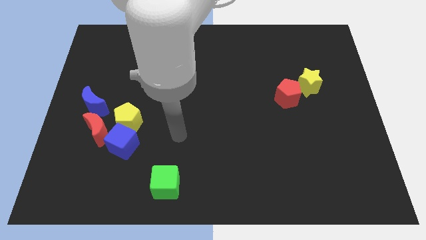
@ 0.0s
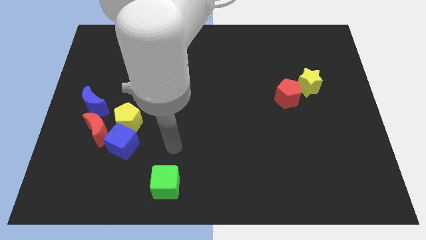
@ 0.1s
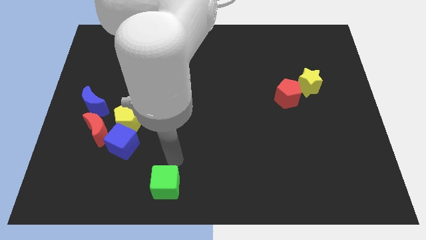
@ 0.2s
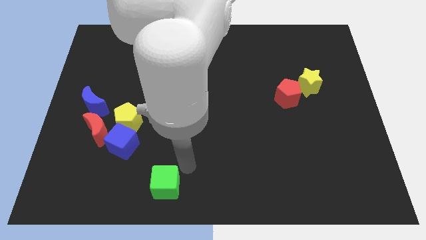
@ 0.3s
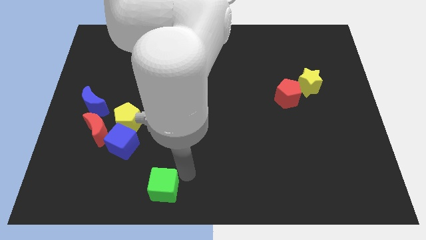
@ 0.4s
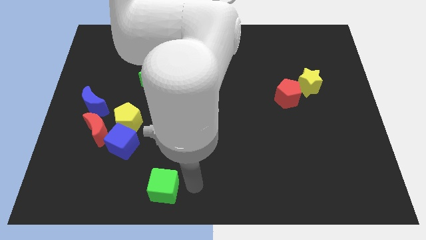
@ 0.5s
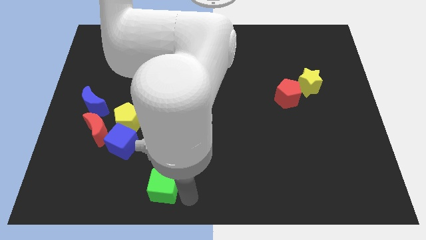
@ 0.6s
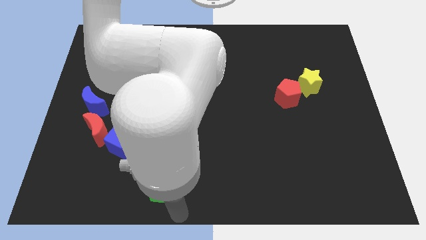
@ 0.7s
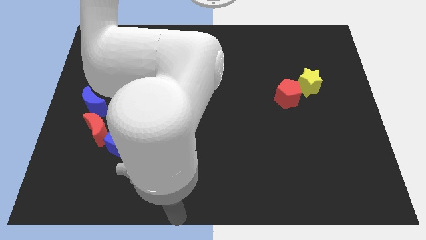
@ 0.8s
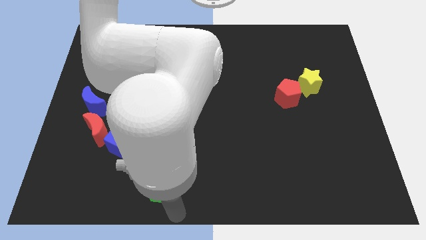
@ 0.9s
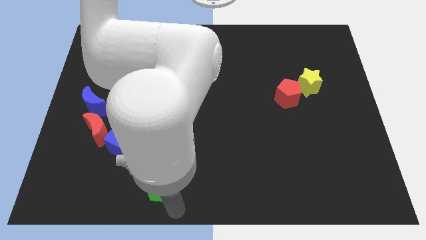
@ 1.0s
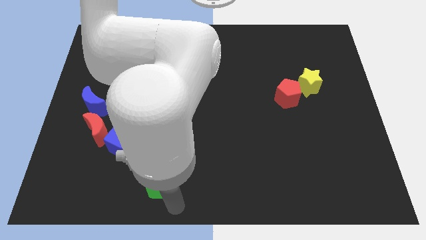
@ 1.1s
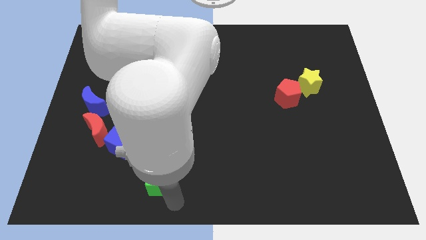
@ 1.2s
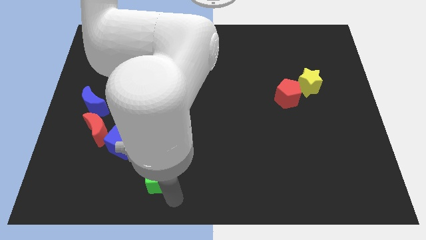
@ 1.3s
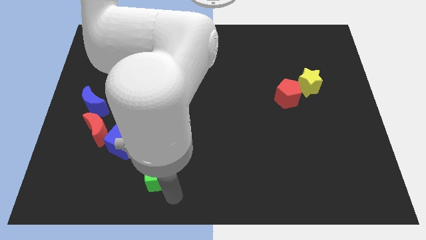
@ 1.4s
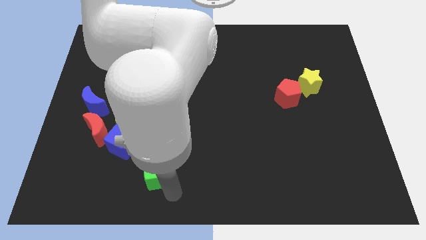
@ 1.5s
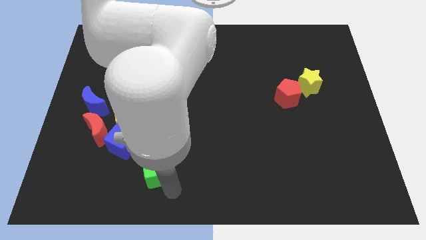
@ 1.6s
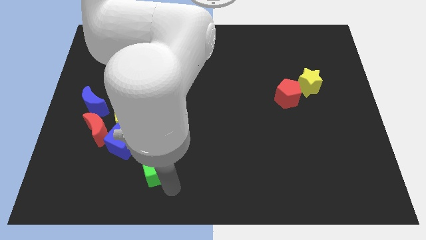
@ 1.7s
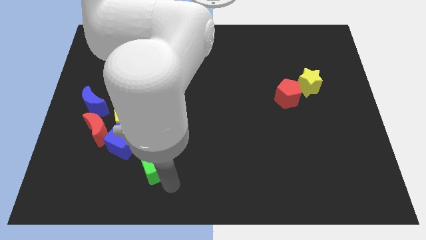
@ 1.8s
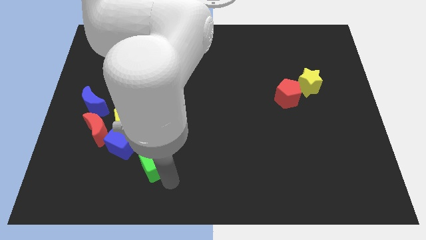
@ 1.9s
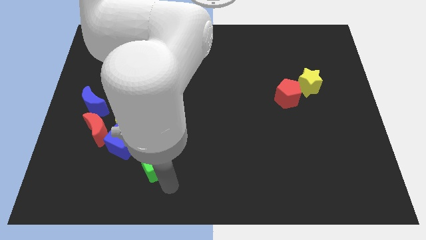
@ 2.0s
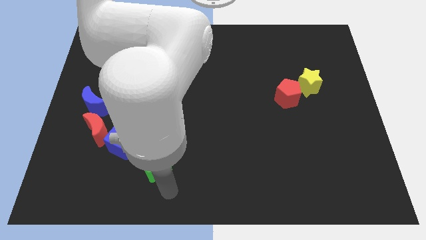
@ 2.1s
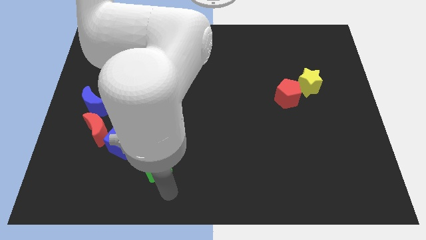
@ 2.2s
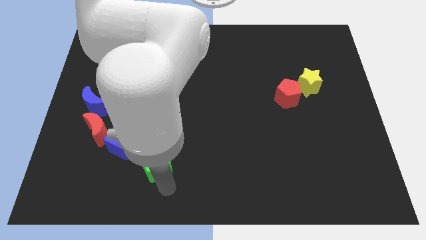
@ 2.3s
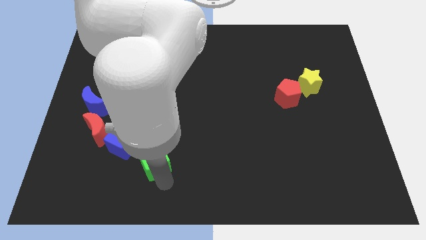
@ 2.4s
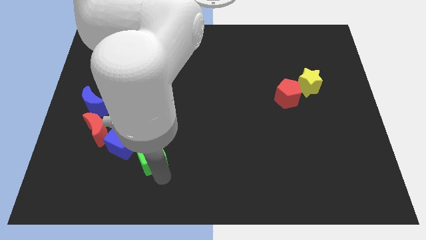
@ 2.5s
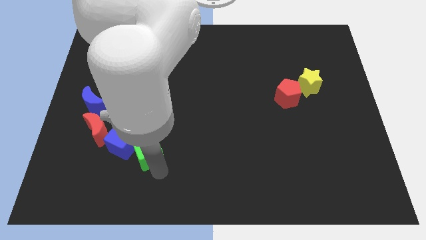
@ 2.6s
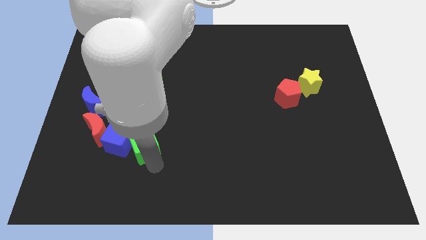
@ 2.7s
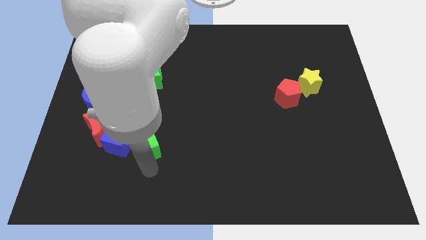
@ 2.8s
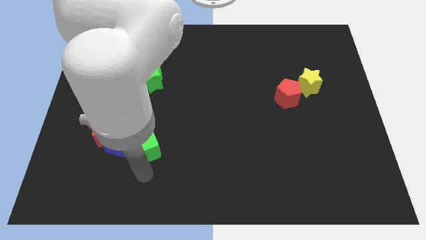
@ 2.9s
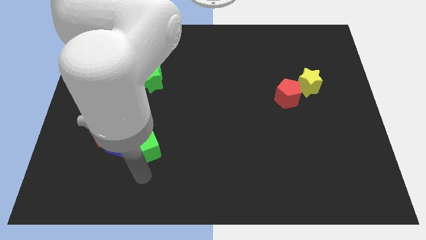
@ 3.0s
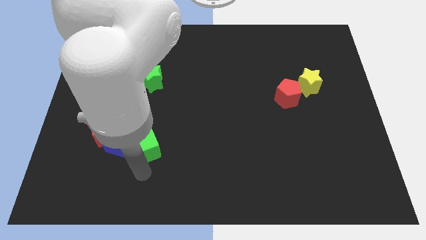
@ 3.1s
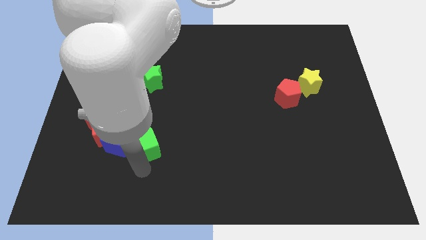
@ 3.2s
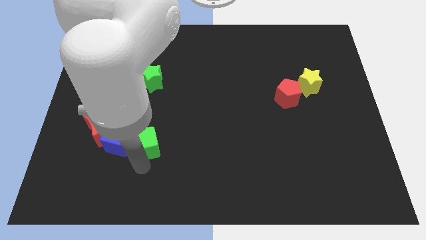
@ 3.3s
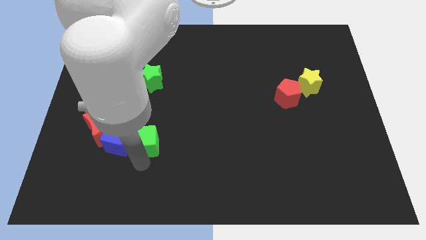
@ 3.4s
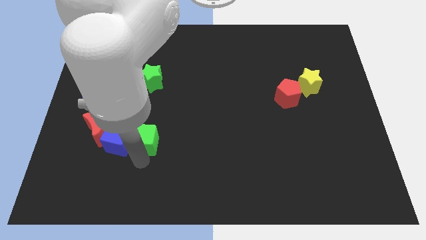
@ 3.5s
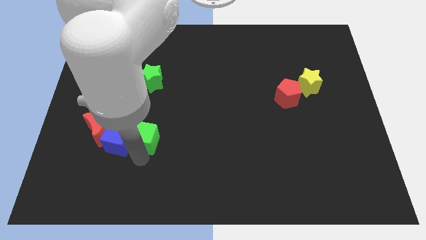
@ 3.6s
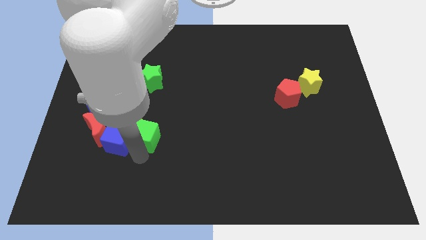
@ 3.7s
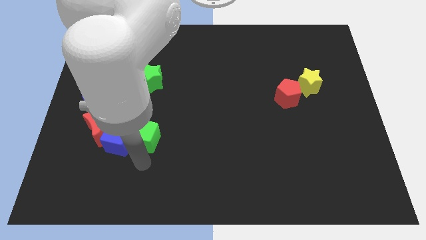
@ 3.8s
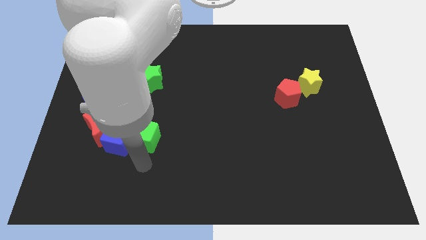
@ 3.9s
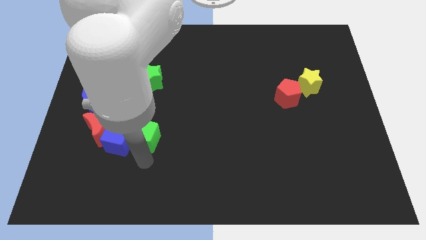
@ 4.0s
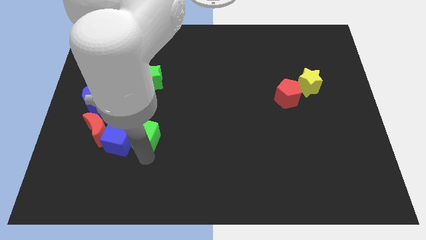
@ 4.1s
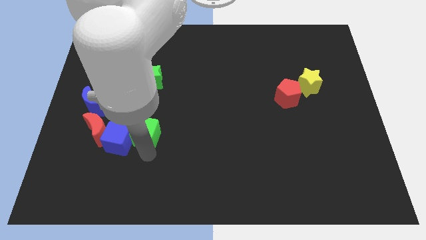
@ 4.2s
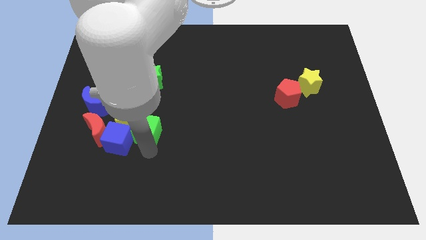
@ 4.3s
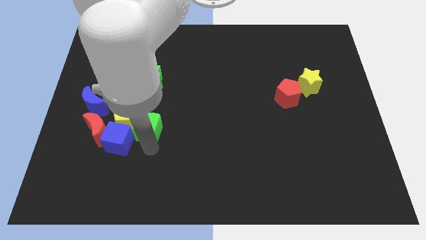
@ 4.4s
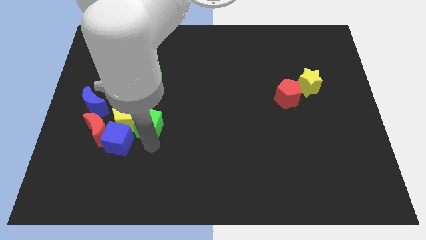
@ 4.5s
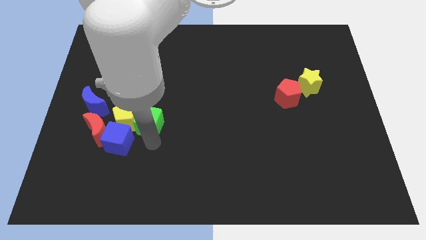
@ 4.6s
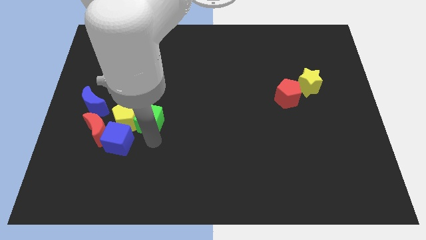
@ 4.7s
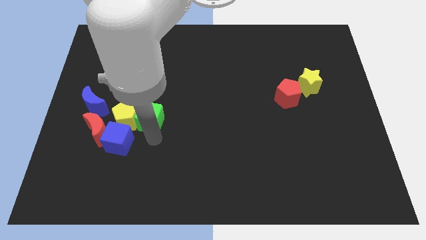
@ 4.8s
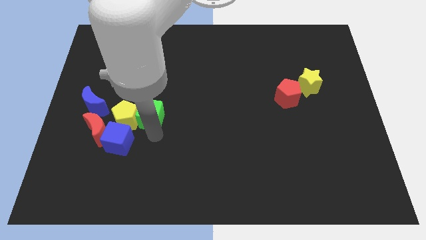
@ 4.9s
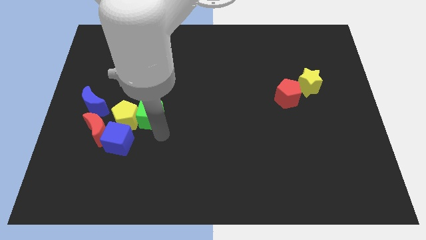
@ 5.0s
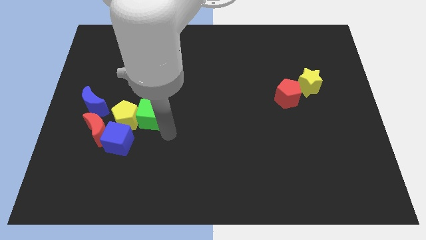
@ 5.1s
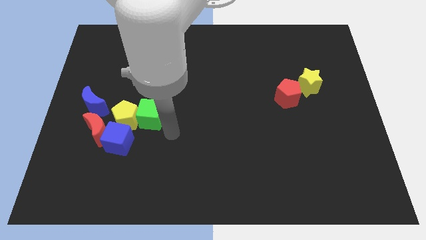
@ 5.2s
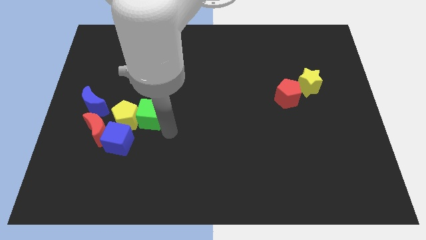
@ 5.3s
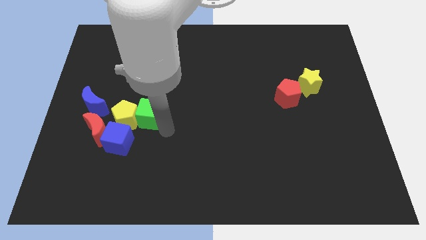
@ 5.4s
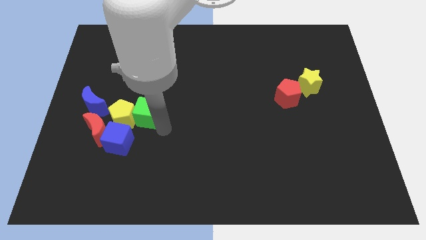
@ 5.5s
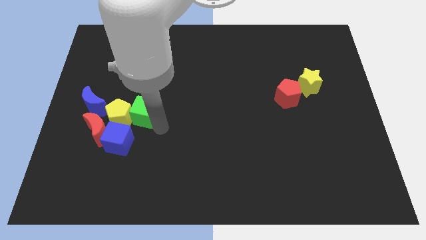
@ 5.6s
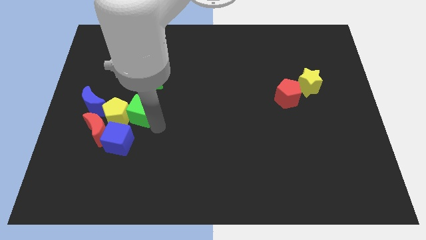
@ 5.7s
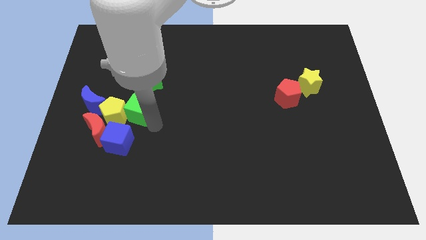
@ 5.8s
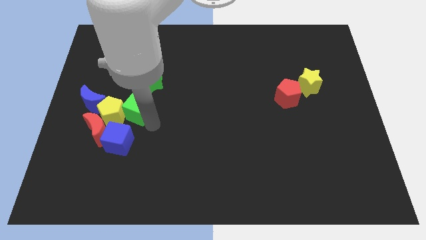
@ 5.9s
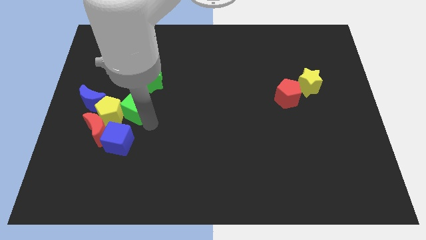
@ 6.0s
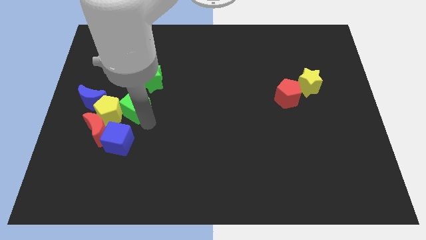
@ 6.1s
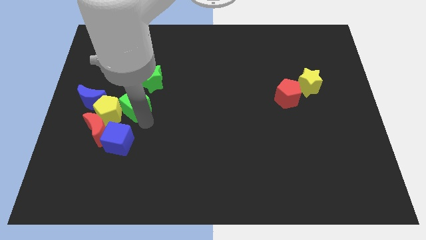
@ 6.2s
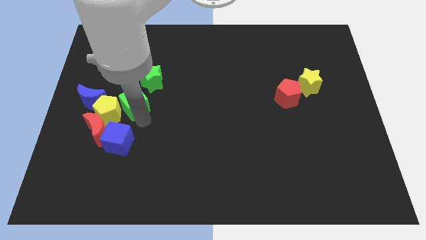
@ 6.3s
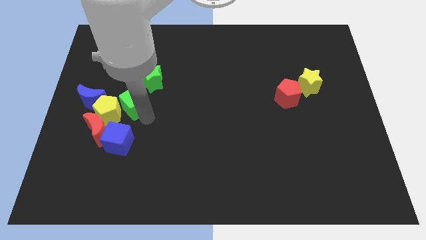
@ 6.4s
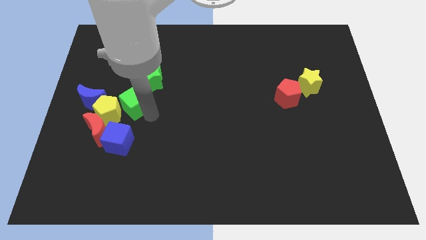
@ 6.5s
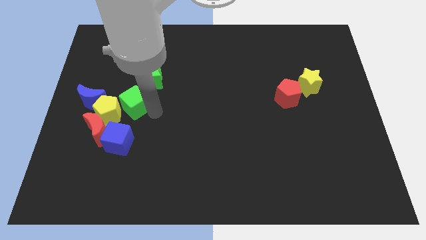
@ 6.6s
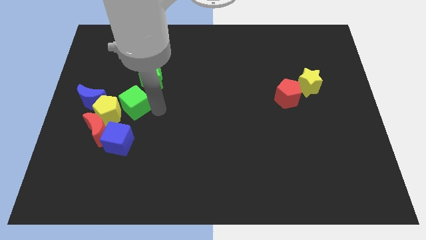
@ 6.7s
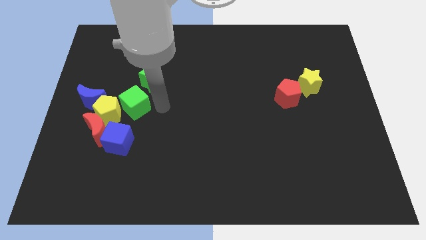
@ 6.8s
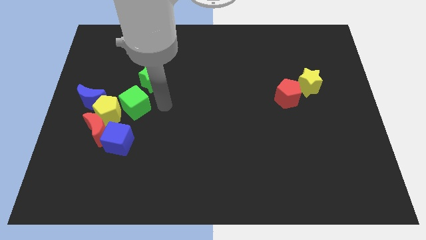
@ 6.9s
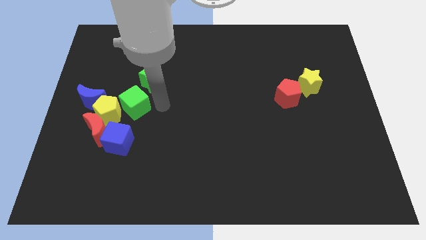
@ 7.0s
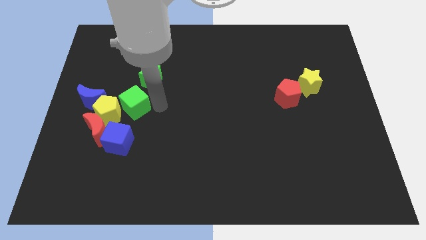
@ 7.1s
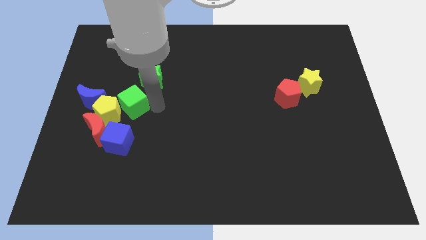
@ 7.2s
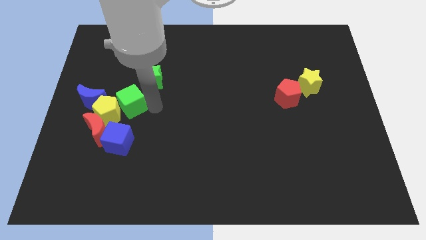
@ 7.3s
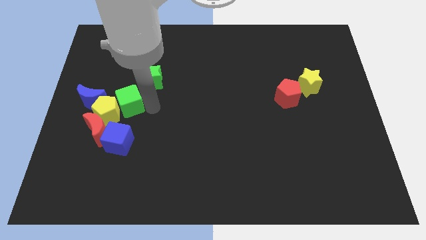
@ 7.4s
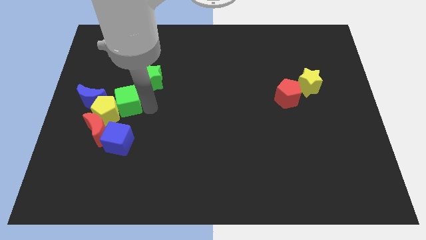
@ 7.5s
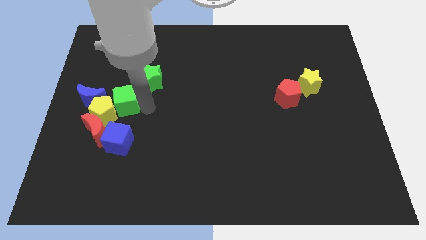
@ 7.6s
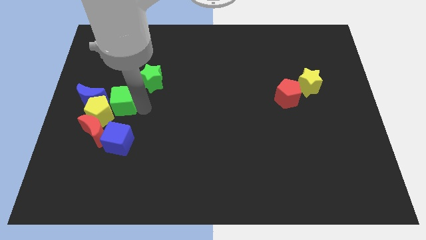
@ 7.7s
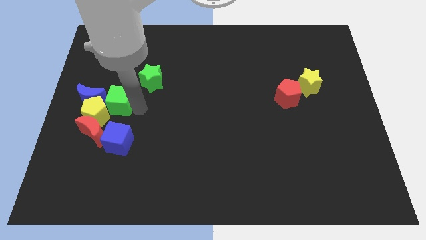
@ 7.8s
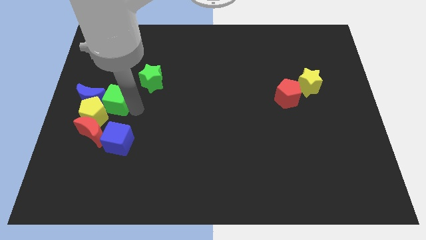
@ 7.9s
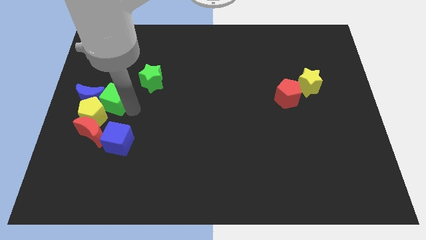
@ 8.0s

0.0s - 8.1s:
put the green cube towards the blue moon
